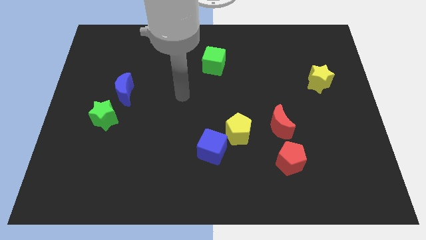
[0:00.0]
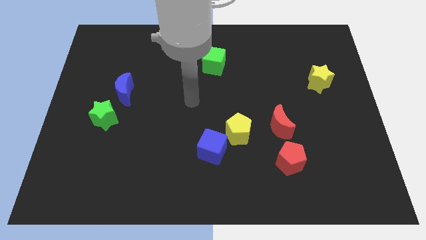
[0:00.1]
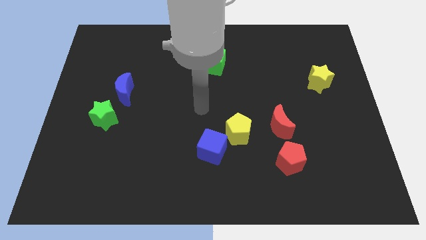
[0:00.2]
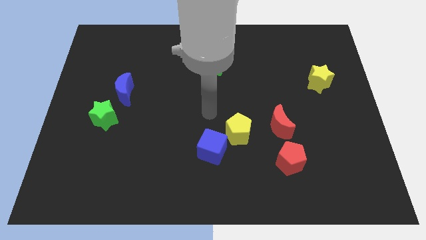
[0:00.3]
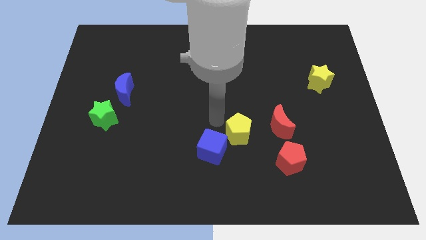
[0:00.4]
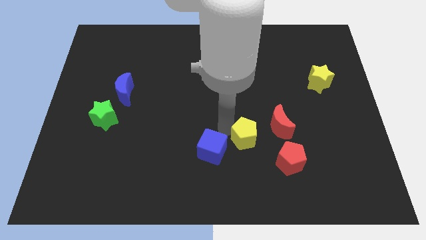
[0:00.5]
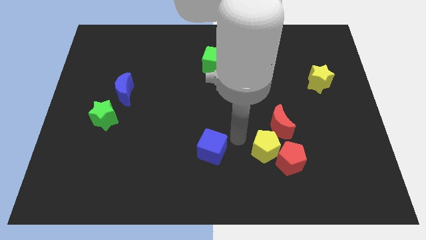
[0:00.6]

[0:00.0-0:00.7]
pull the blue cube apart from the yellow pentagon

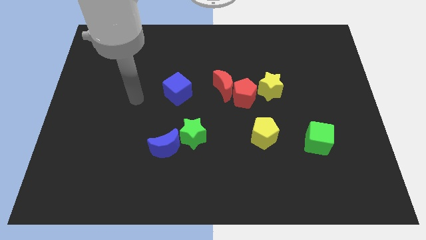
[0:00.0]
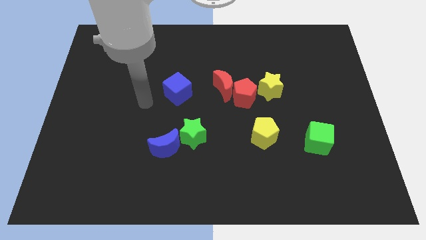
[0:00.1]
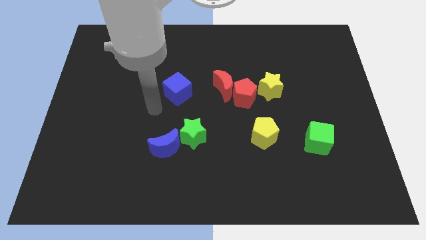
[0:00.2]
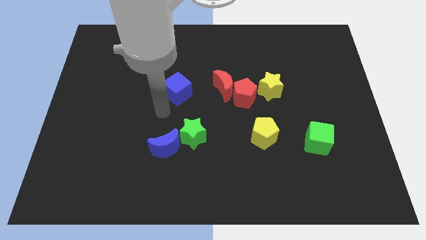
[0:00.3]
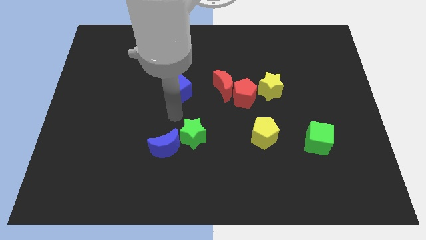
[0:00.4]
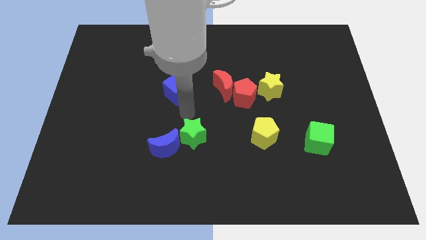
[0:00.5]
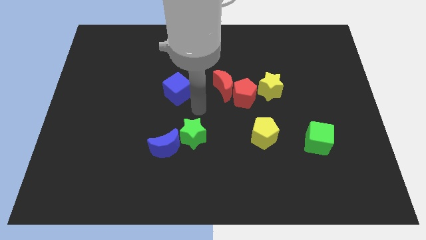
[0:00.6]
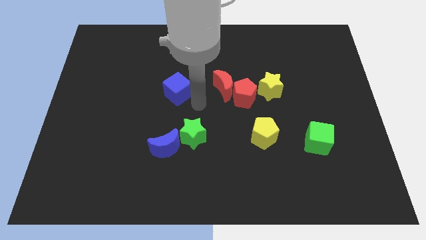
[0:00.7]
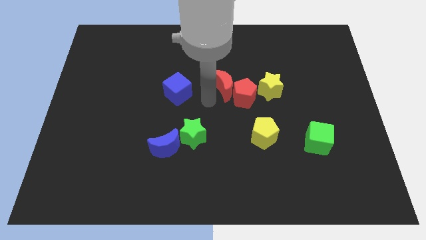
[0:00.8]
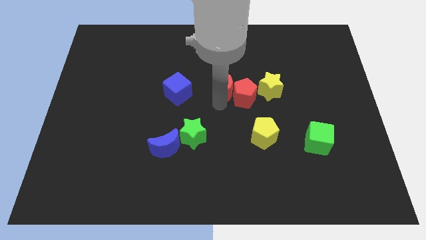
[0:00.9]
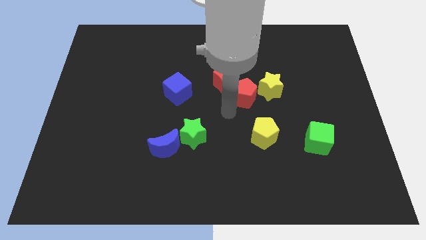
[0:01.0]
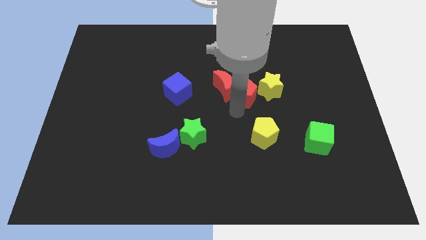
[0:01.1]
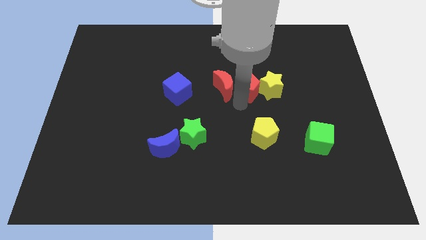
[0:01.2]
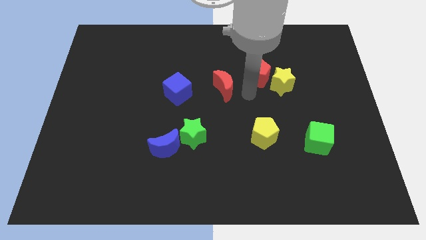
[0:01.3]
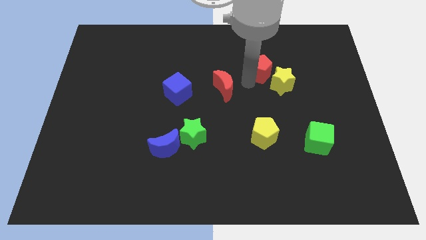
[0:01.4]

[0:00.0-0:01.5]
pull the red moon apart from the red pentagon

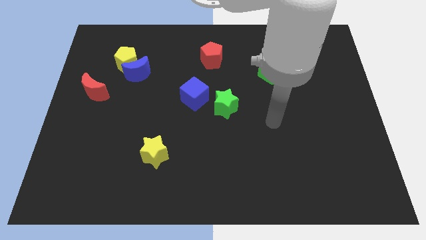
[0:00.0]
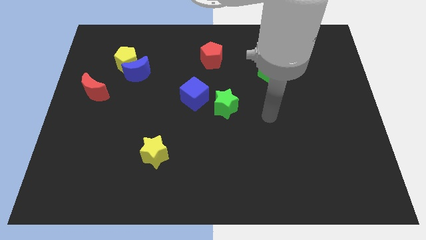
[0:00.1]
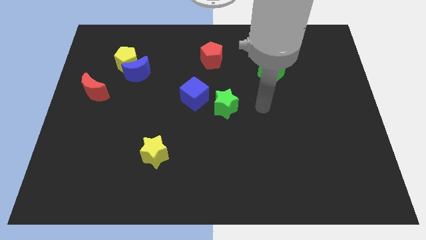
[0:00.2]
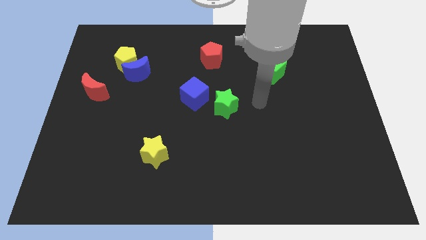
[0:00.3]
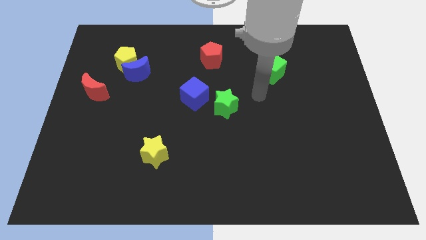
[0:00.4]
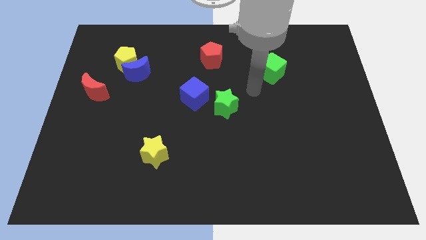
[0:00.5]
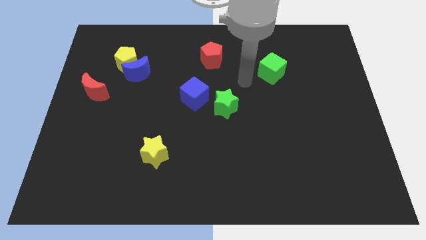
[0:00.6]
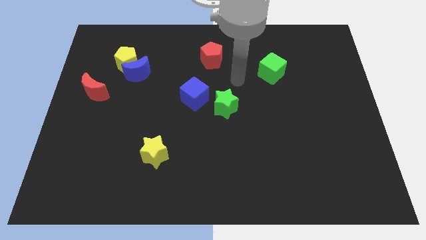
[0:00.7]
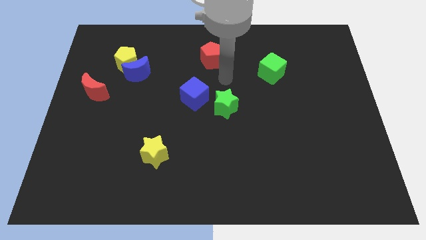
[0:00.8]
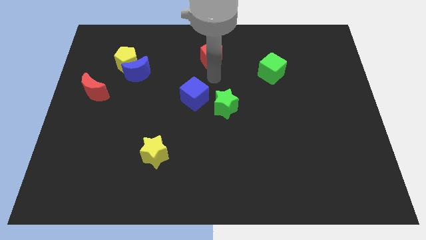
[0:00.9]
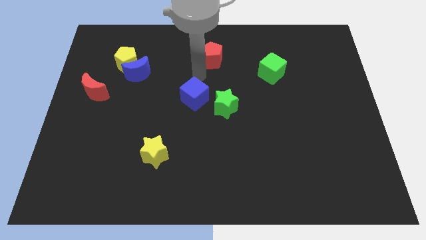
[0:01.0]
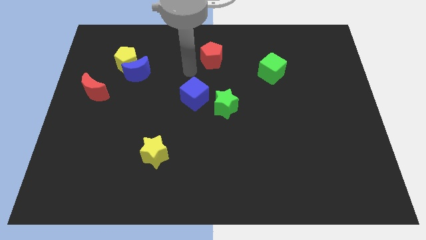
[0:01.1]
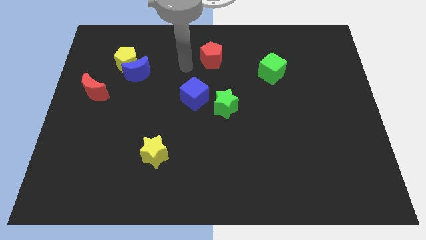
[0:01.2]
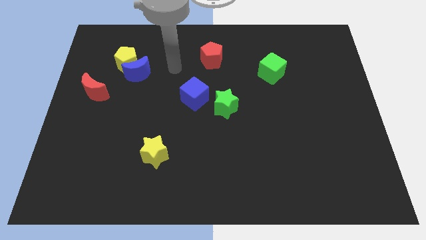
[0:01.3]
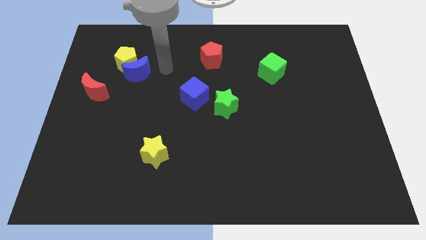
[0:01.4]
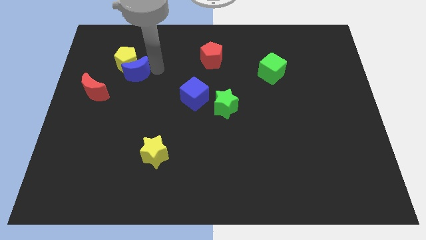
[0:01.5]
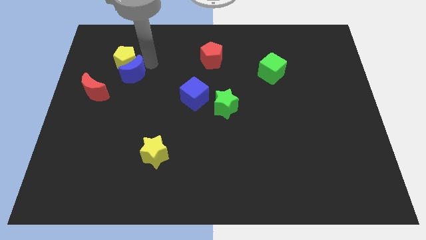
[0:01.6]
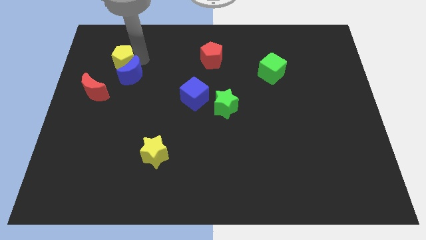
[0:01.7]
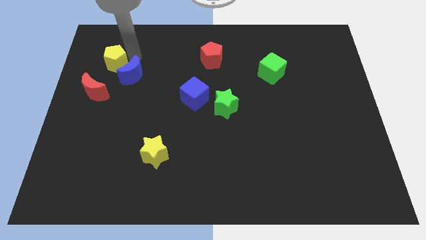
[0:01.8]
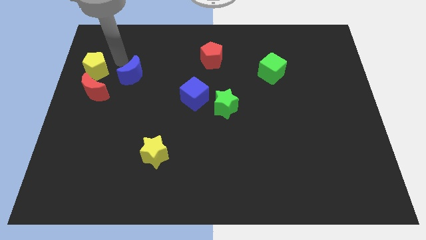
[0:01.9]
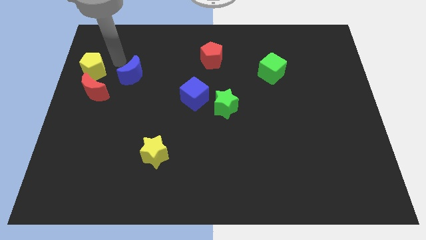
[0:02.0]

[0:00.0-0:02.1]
move the blue moon away from the yellow pentagon

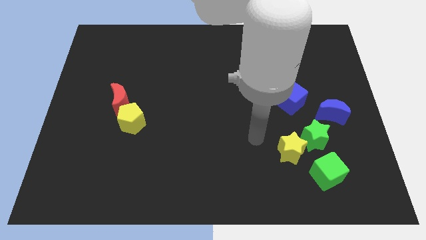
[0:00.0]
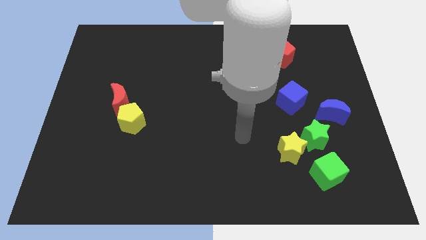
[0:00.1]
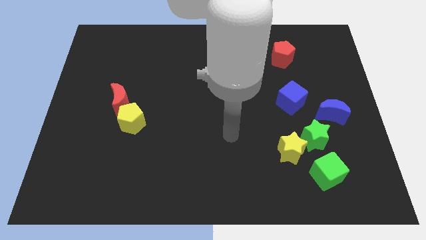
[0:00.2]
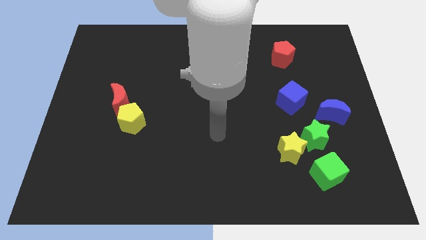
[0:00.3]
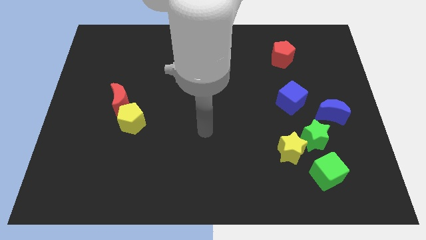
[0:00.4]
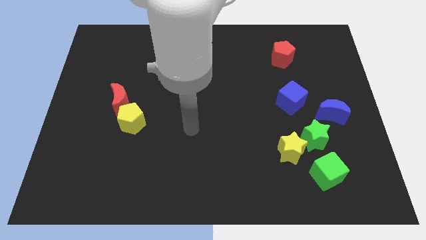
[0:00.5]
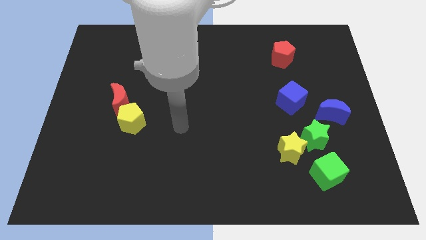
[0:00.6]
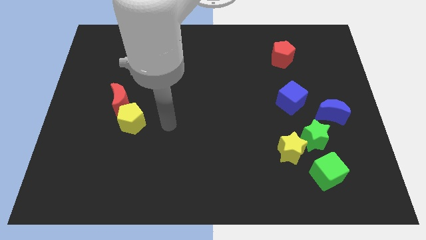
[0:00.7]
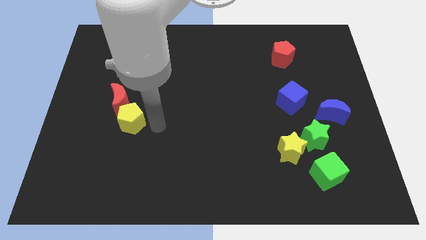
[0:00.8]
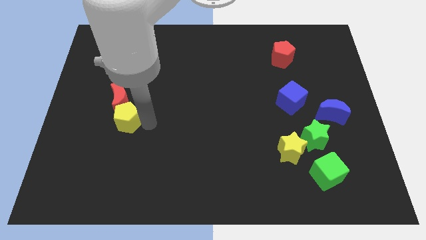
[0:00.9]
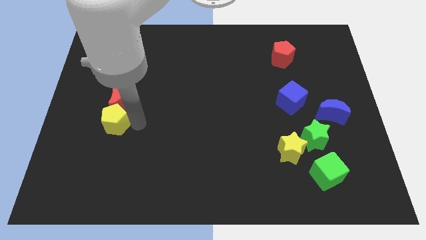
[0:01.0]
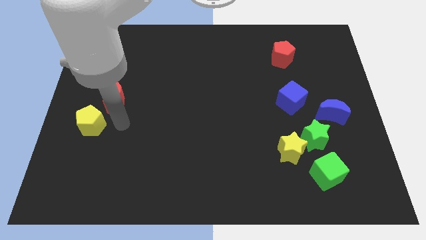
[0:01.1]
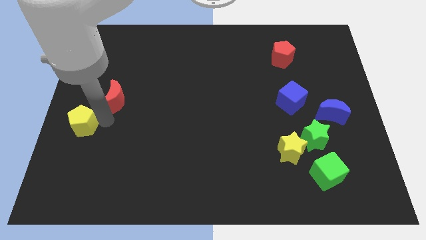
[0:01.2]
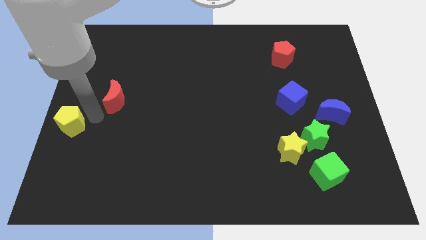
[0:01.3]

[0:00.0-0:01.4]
move the red moon away from the yellow pentagon

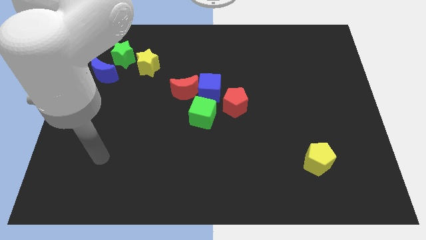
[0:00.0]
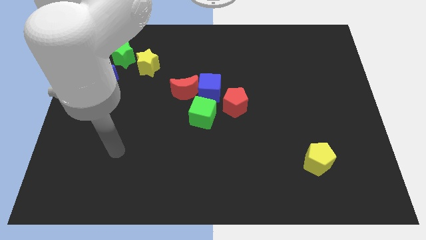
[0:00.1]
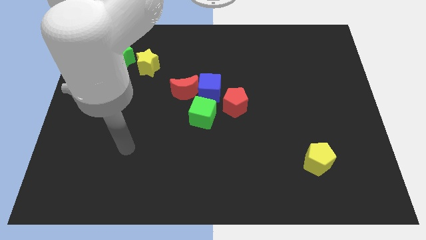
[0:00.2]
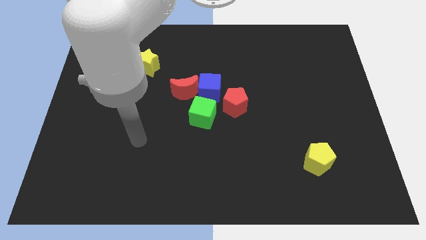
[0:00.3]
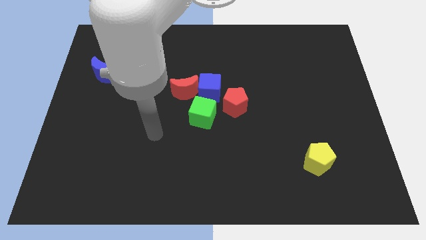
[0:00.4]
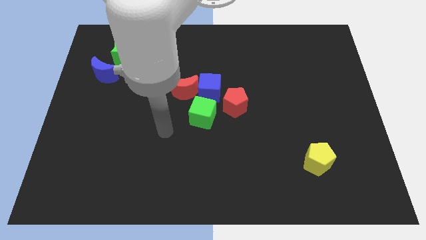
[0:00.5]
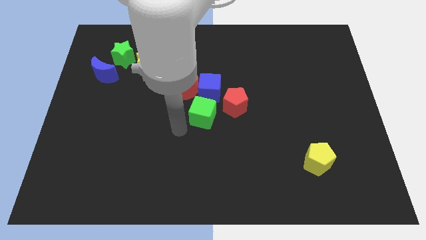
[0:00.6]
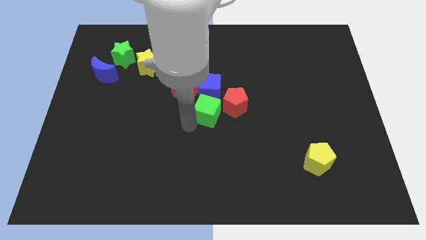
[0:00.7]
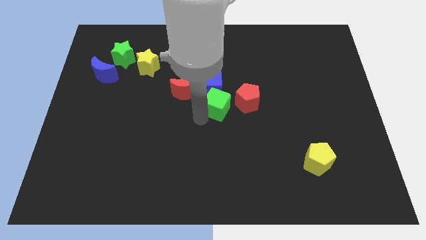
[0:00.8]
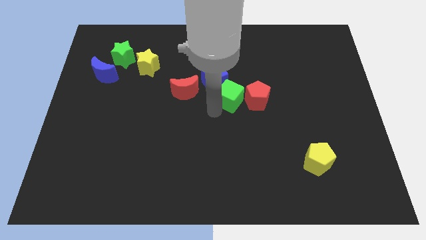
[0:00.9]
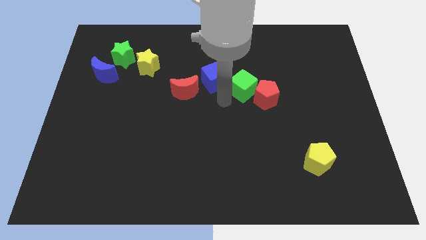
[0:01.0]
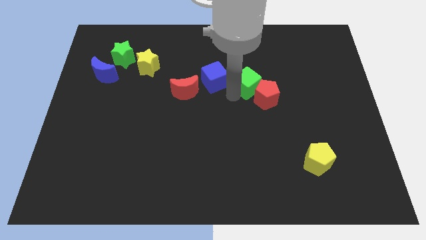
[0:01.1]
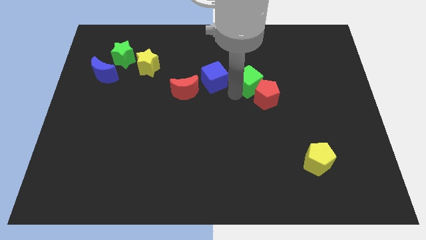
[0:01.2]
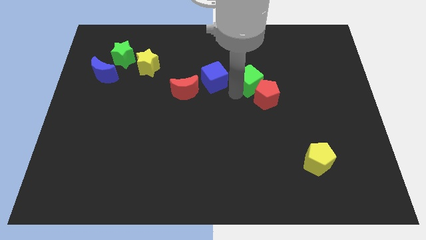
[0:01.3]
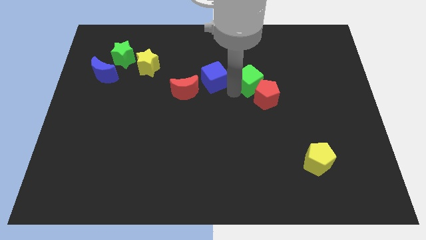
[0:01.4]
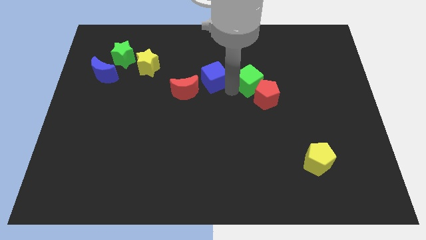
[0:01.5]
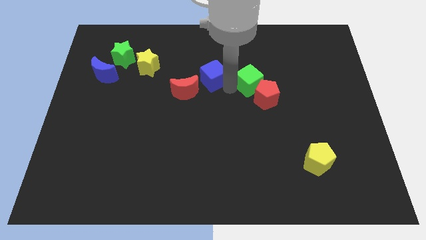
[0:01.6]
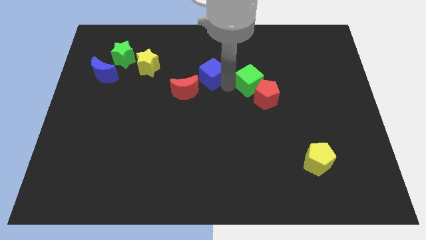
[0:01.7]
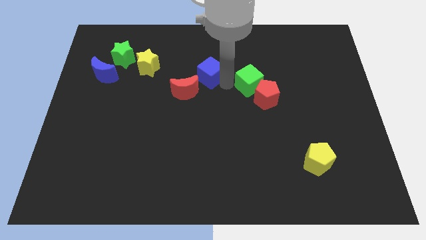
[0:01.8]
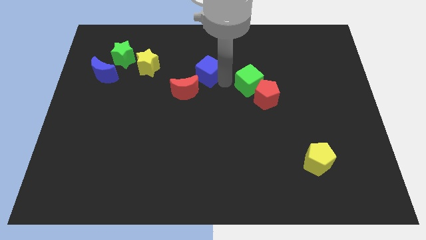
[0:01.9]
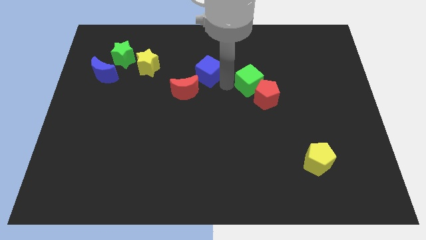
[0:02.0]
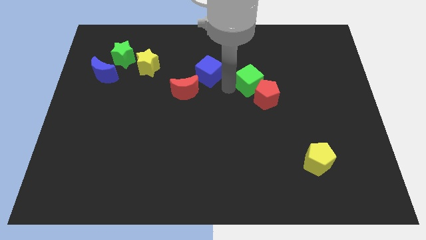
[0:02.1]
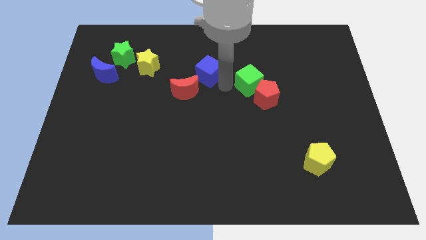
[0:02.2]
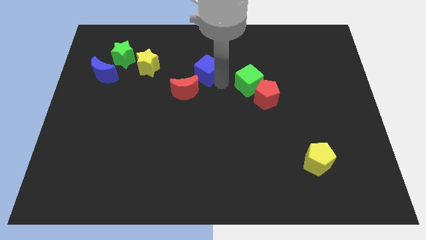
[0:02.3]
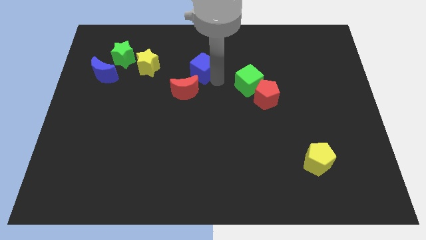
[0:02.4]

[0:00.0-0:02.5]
separate the blue cube from the red moon, red pentagon, and green cube

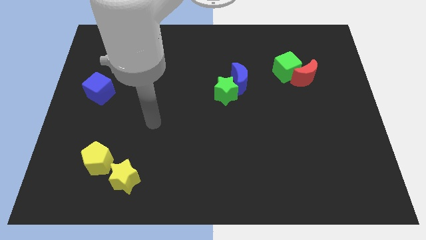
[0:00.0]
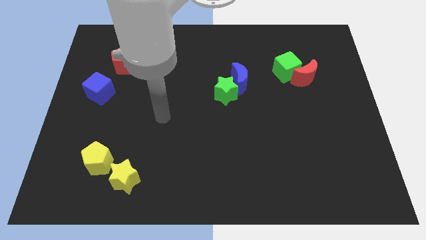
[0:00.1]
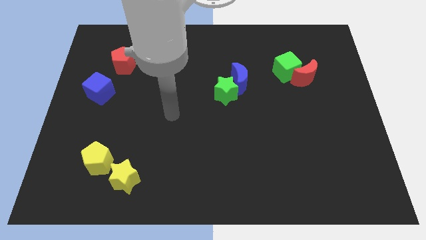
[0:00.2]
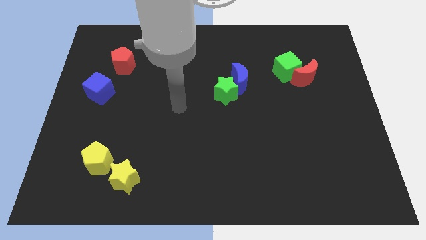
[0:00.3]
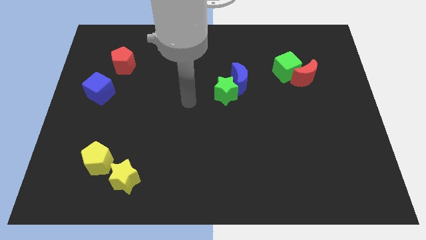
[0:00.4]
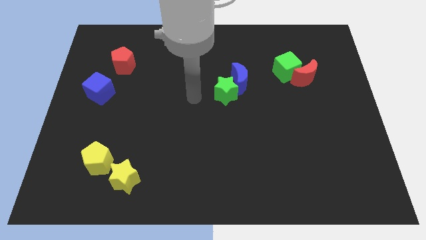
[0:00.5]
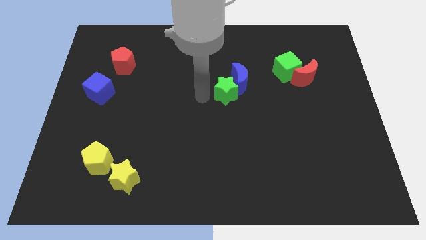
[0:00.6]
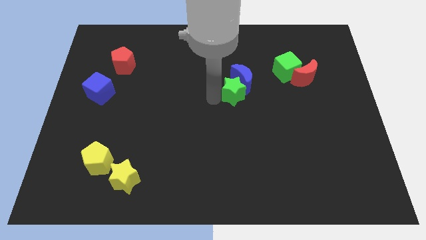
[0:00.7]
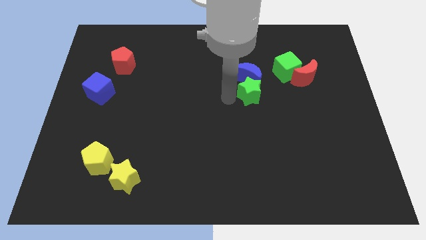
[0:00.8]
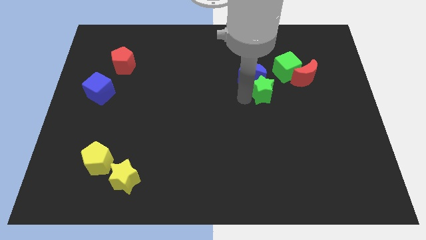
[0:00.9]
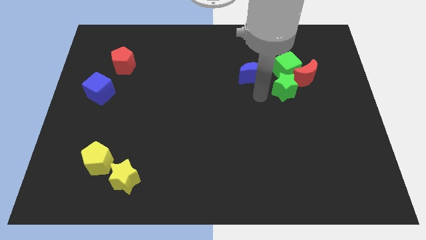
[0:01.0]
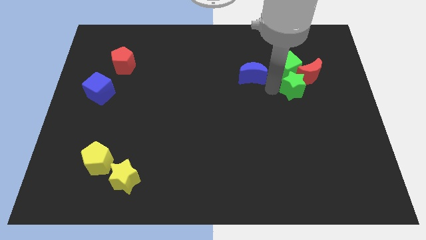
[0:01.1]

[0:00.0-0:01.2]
pull the blue moon apart from the green star

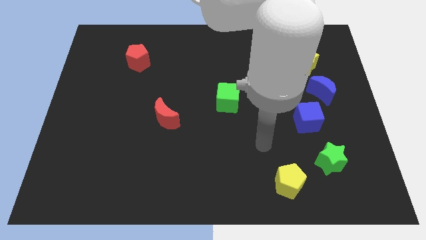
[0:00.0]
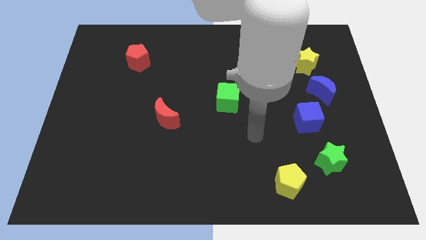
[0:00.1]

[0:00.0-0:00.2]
separate the yellow star from the blue moon
